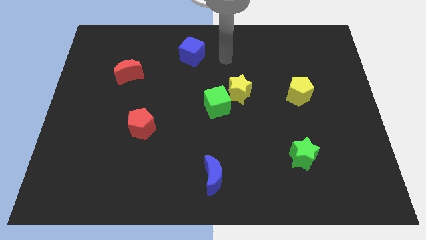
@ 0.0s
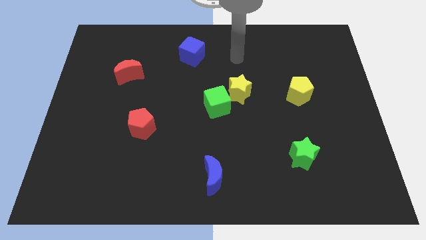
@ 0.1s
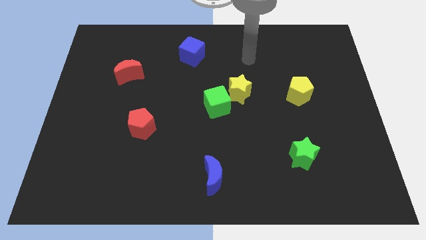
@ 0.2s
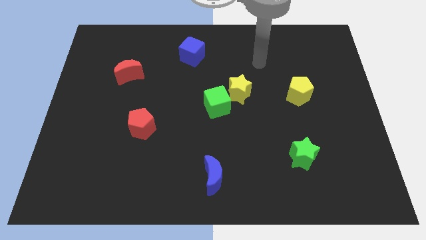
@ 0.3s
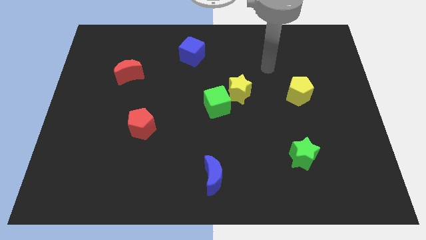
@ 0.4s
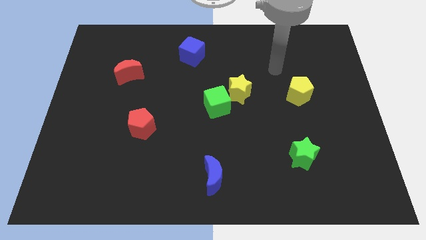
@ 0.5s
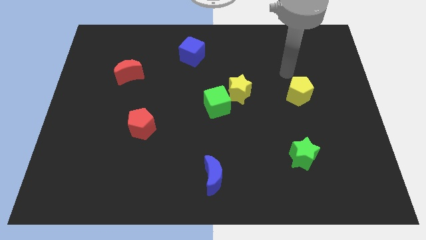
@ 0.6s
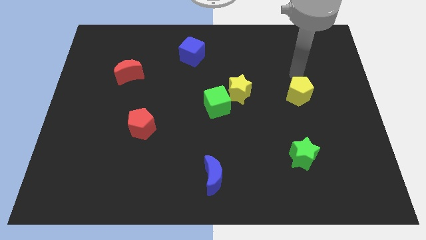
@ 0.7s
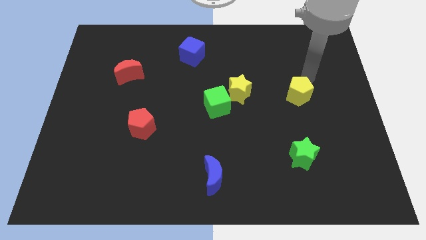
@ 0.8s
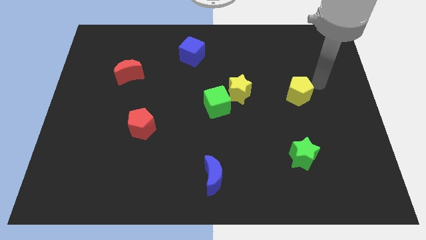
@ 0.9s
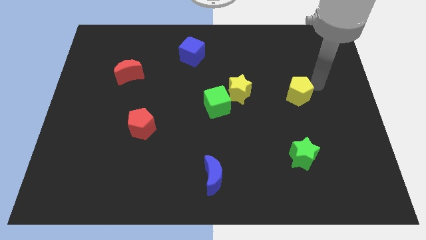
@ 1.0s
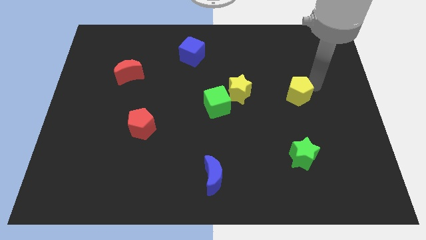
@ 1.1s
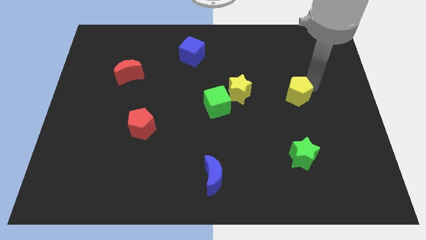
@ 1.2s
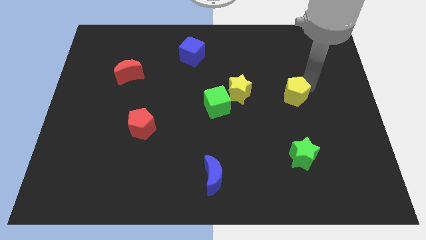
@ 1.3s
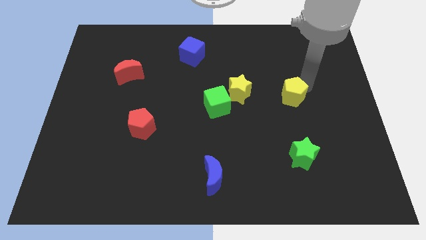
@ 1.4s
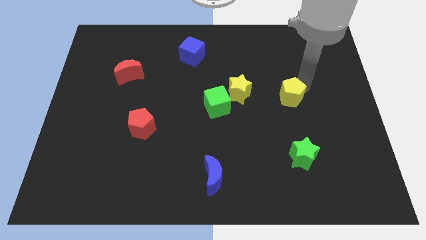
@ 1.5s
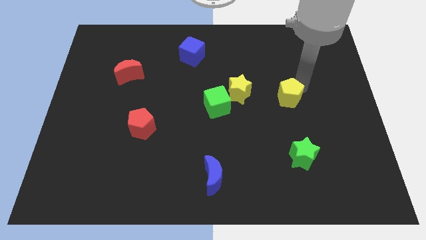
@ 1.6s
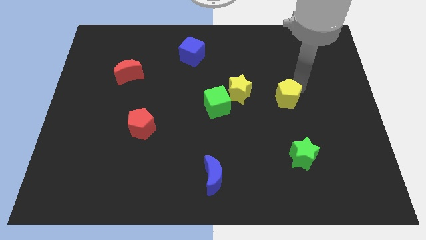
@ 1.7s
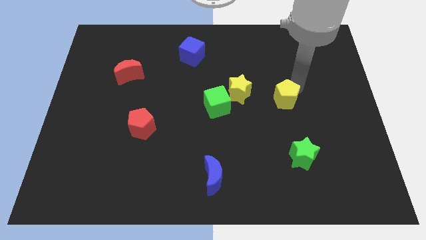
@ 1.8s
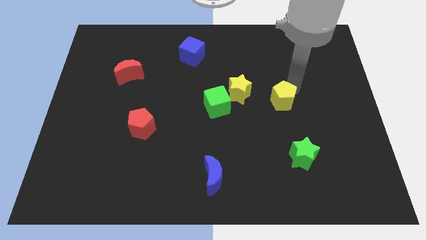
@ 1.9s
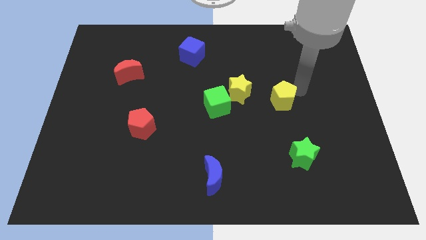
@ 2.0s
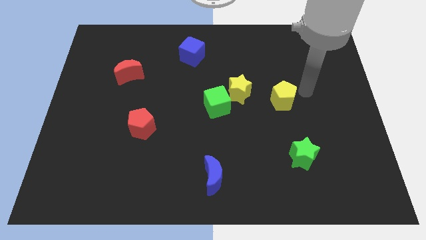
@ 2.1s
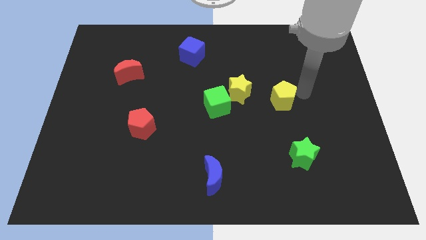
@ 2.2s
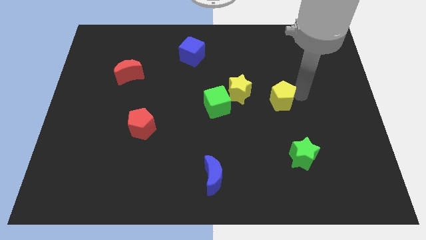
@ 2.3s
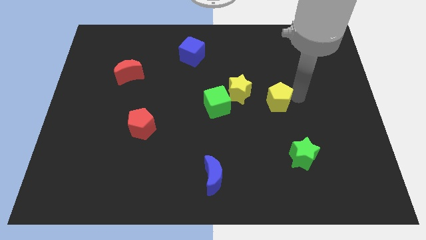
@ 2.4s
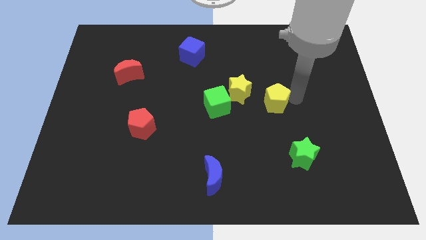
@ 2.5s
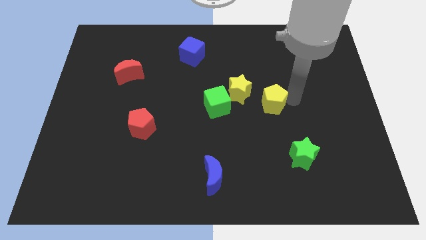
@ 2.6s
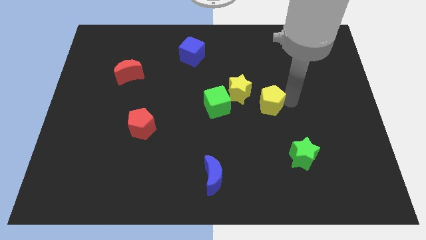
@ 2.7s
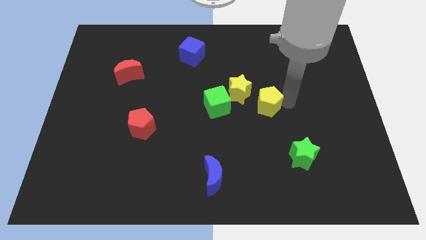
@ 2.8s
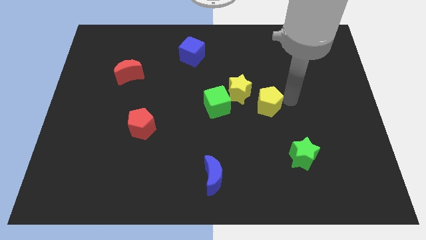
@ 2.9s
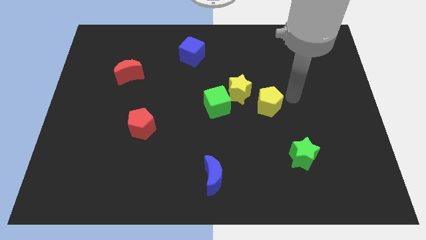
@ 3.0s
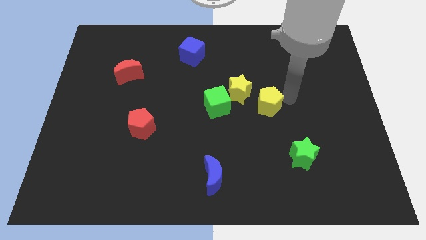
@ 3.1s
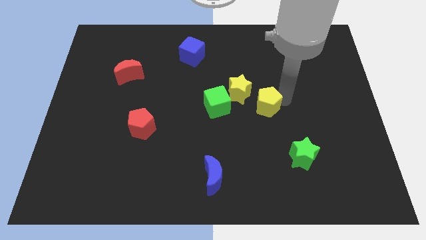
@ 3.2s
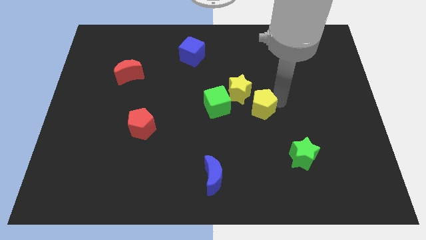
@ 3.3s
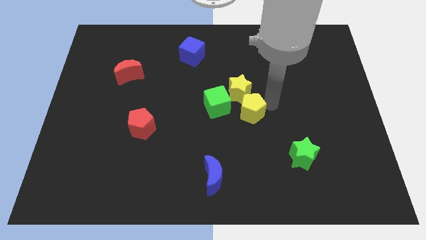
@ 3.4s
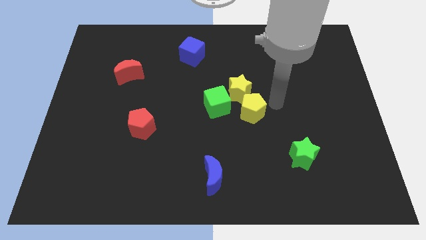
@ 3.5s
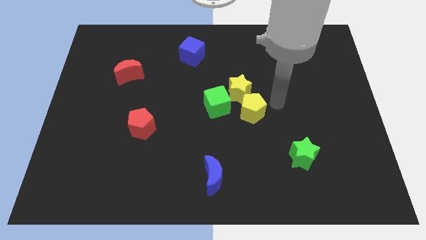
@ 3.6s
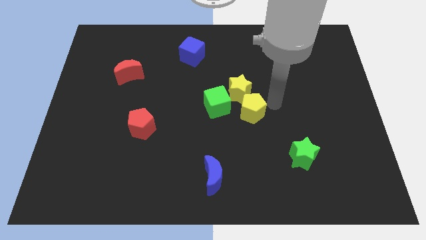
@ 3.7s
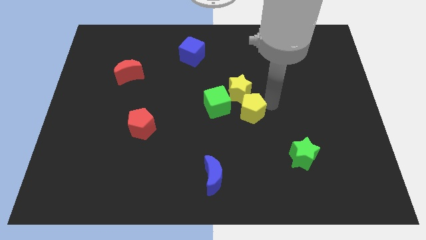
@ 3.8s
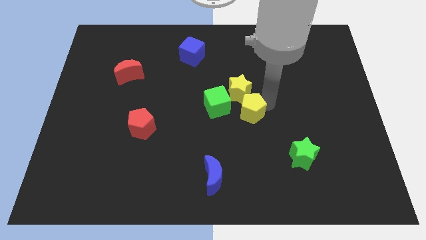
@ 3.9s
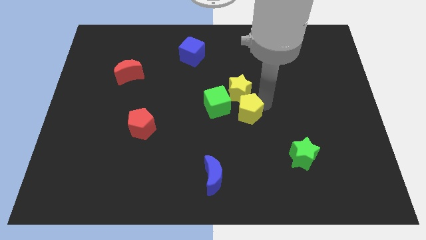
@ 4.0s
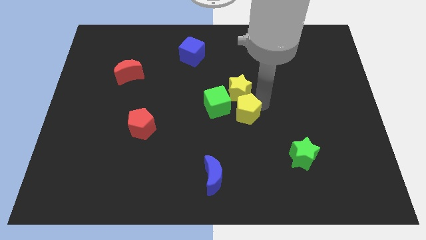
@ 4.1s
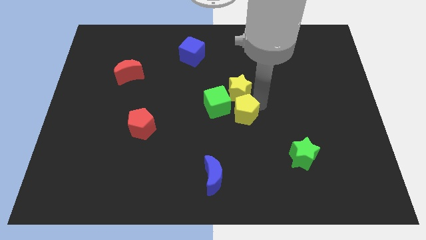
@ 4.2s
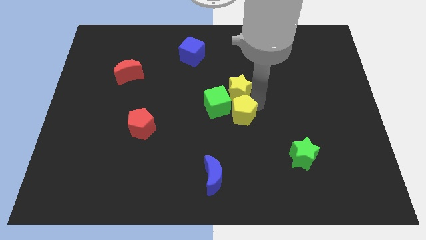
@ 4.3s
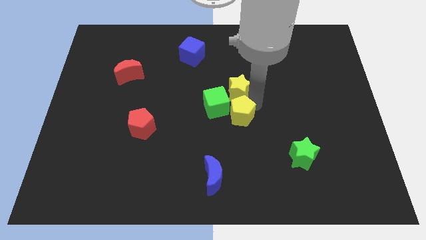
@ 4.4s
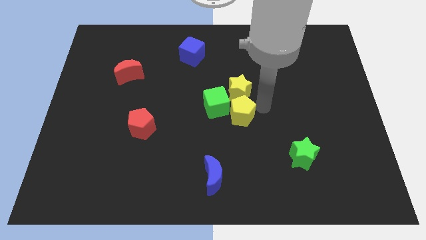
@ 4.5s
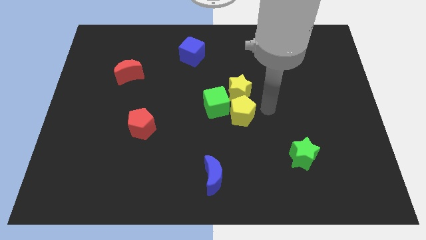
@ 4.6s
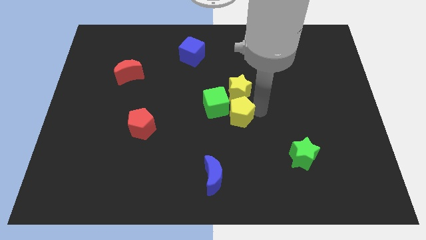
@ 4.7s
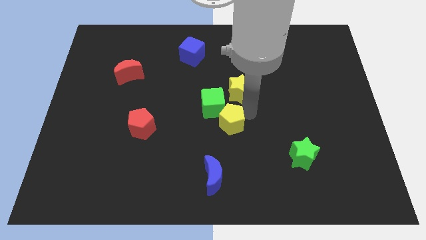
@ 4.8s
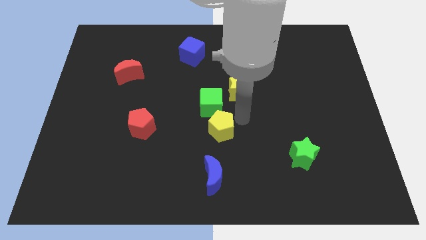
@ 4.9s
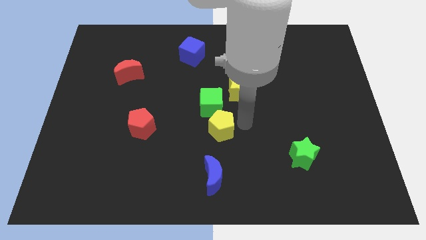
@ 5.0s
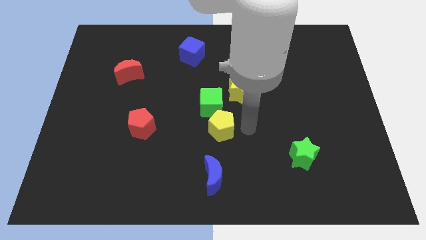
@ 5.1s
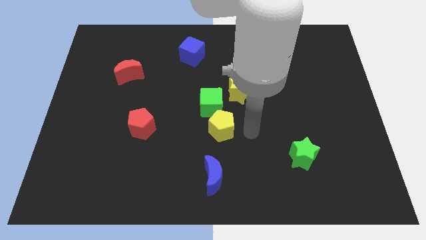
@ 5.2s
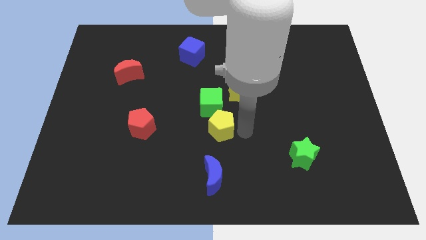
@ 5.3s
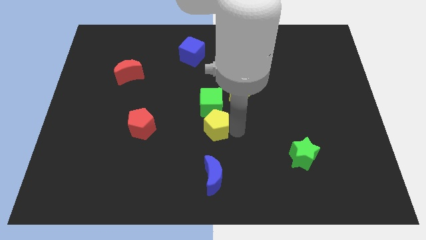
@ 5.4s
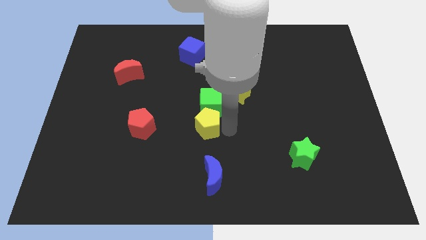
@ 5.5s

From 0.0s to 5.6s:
move the yellow pentagon to the bottom left side of the green cube

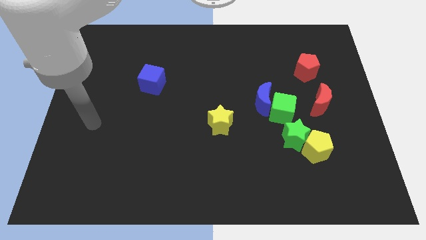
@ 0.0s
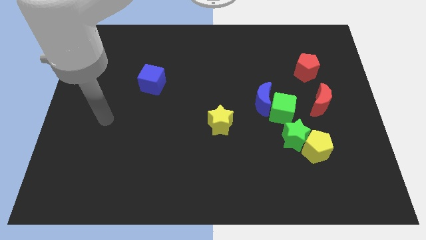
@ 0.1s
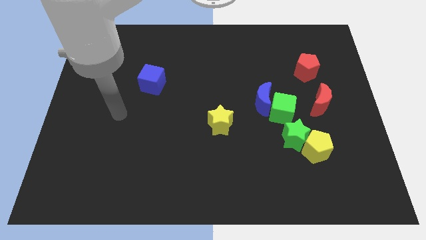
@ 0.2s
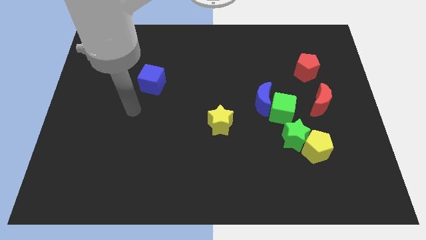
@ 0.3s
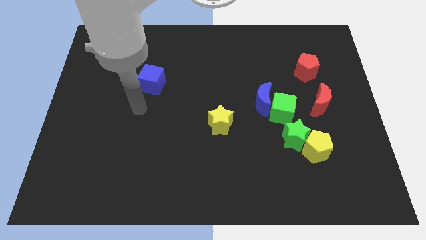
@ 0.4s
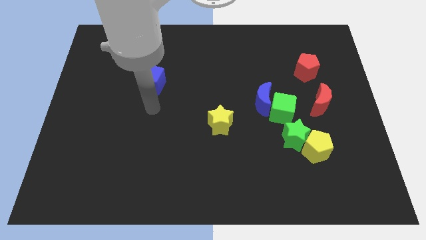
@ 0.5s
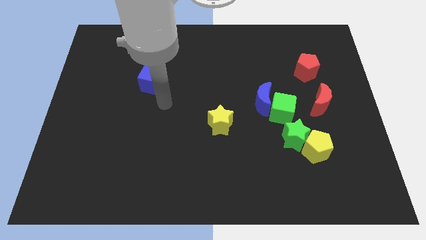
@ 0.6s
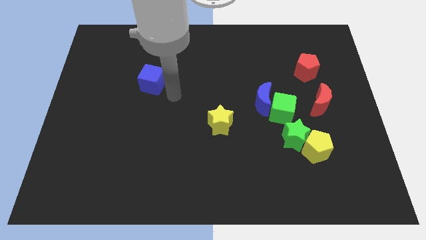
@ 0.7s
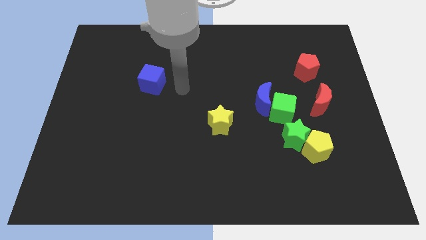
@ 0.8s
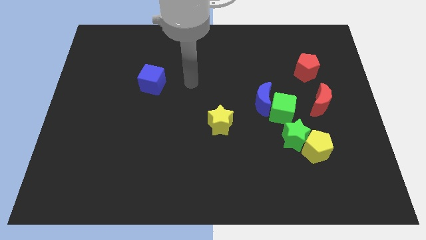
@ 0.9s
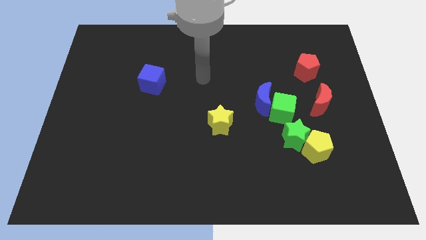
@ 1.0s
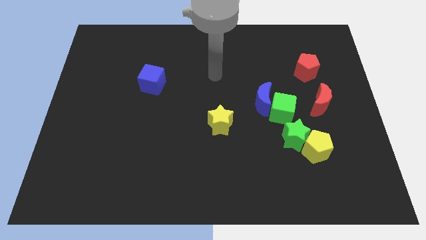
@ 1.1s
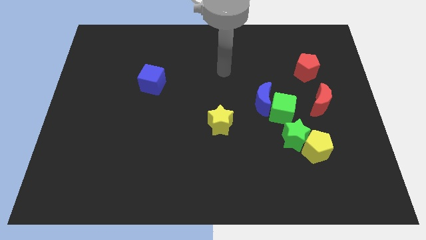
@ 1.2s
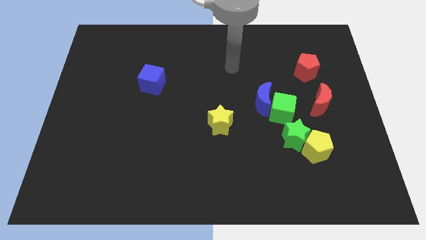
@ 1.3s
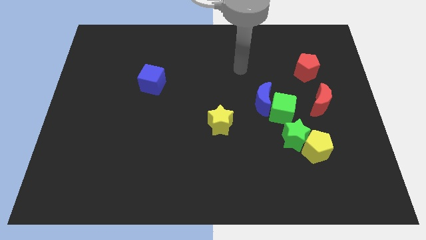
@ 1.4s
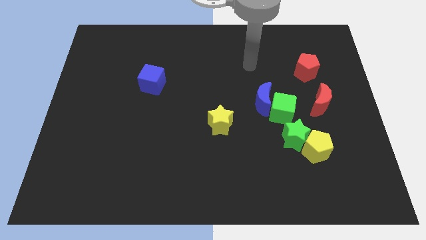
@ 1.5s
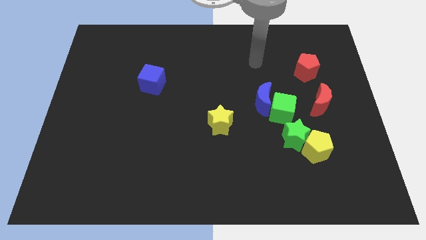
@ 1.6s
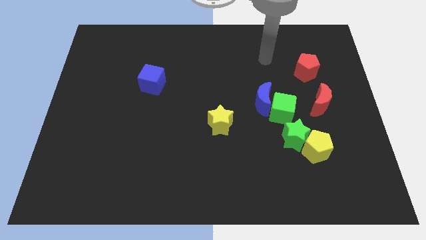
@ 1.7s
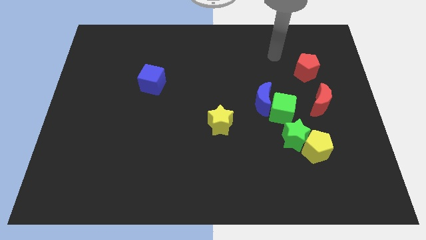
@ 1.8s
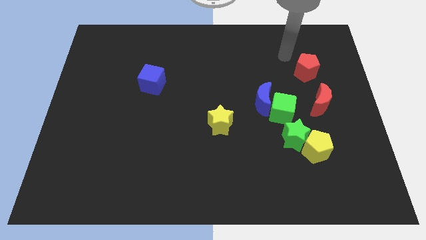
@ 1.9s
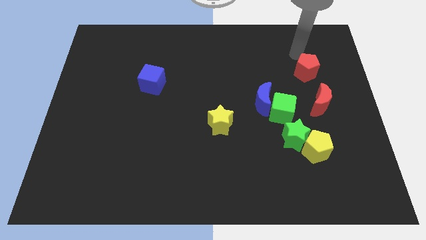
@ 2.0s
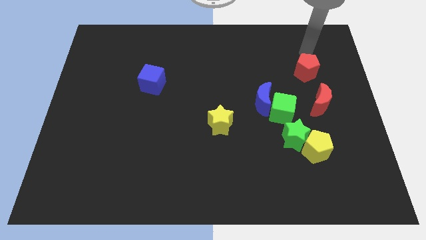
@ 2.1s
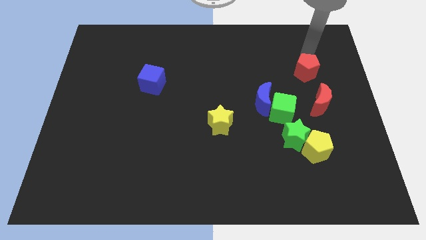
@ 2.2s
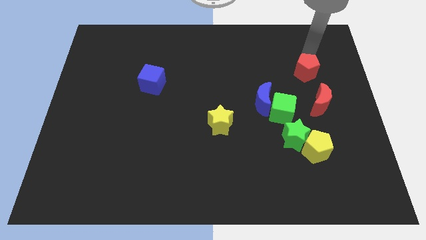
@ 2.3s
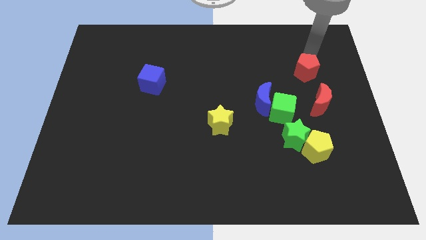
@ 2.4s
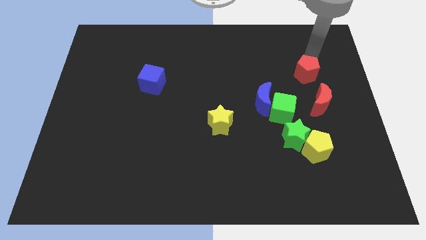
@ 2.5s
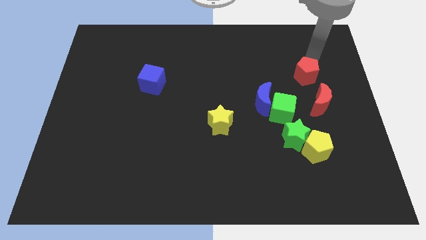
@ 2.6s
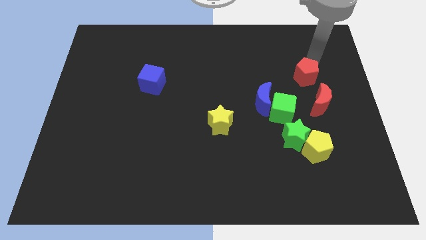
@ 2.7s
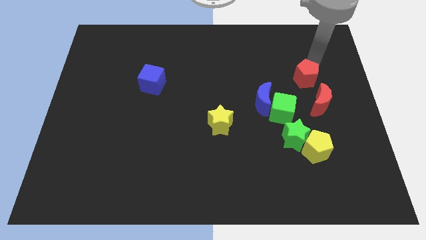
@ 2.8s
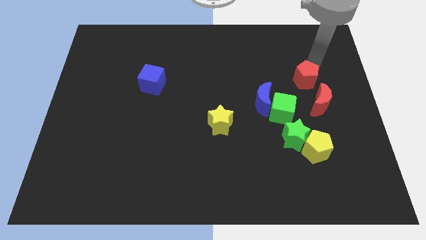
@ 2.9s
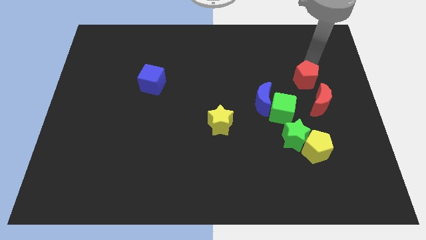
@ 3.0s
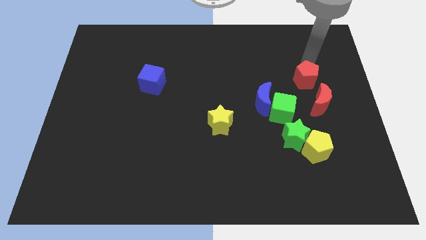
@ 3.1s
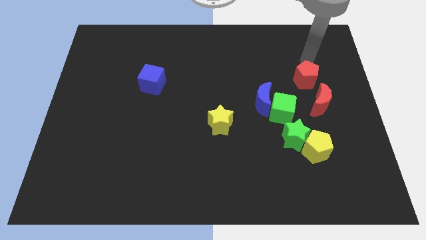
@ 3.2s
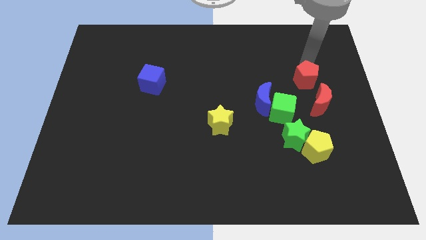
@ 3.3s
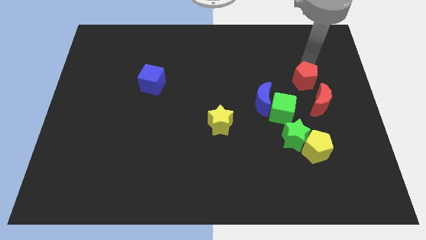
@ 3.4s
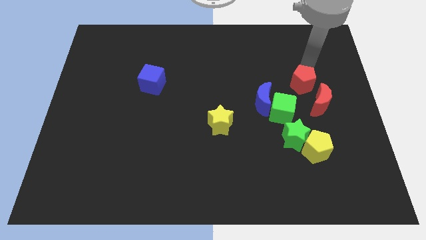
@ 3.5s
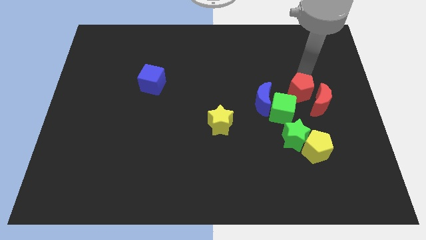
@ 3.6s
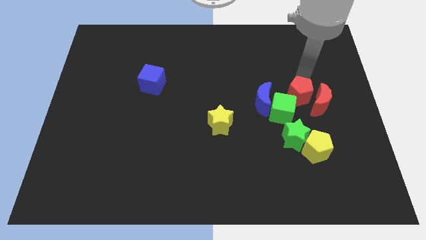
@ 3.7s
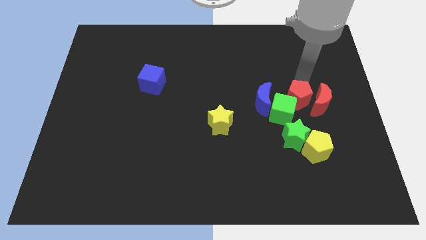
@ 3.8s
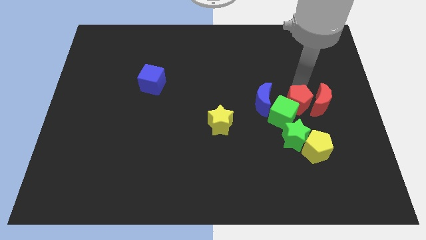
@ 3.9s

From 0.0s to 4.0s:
move the red pentagon to the bottom left side of the red moon
